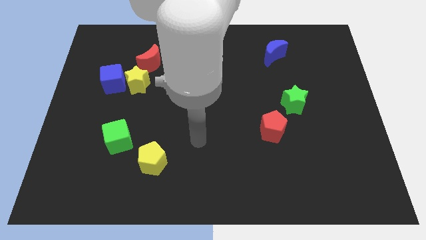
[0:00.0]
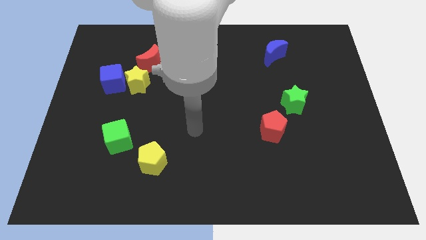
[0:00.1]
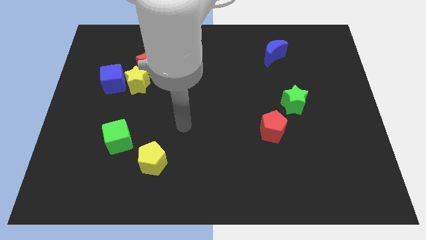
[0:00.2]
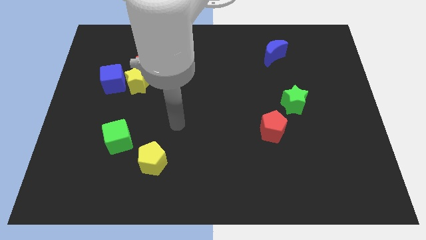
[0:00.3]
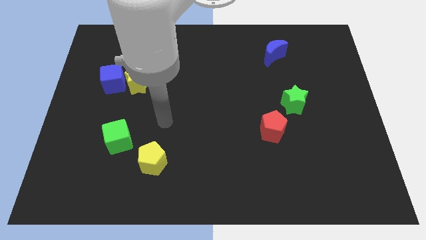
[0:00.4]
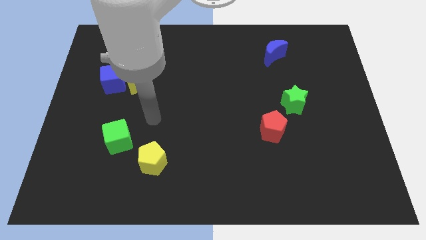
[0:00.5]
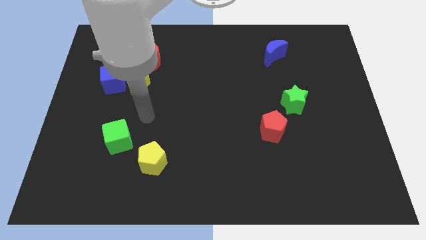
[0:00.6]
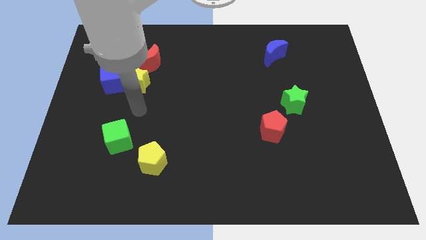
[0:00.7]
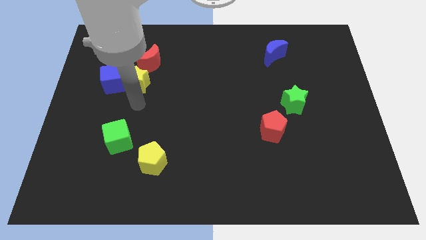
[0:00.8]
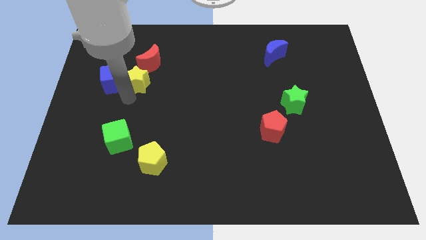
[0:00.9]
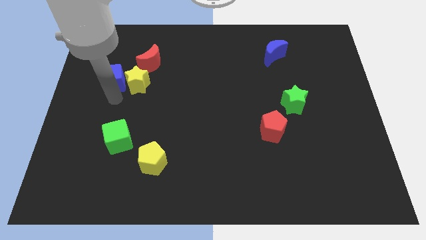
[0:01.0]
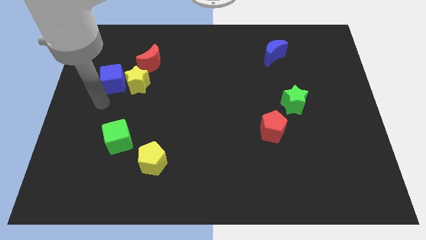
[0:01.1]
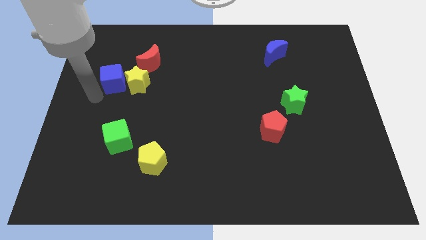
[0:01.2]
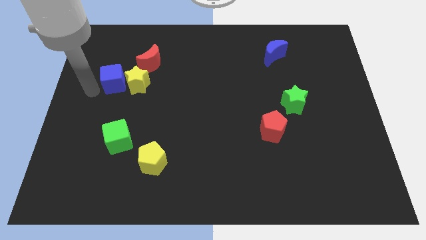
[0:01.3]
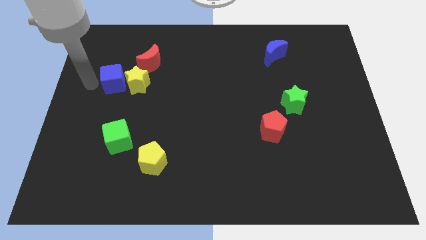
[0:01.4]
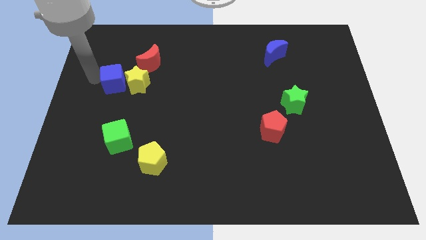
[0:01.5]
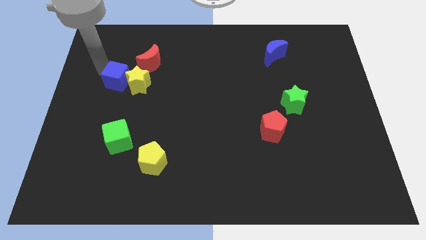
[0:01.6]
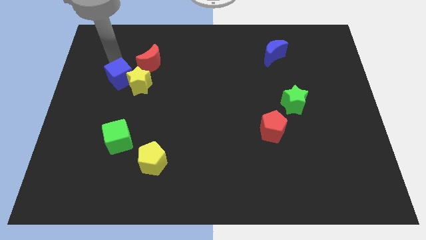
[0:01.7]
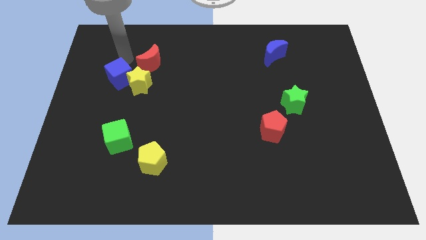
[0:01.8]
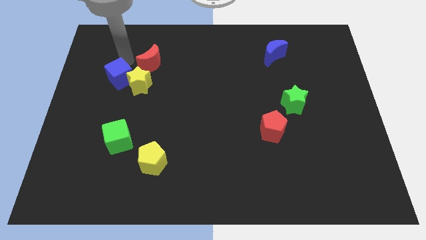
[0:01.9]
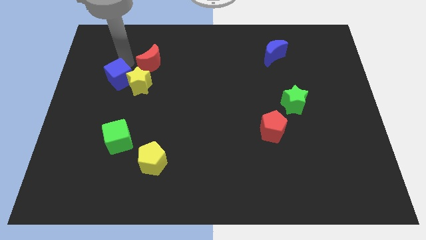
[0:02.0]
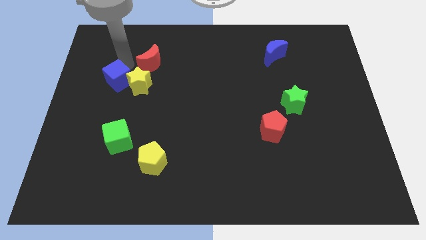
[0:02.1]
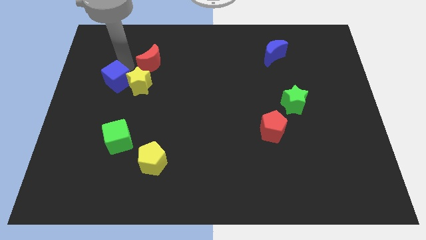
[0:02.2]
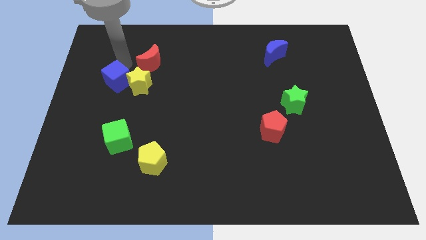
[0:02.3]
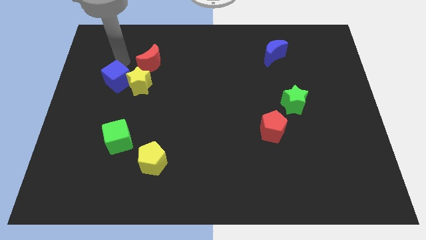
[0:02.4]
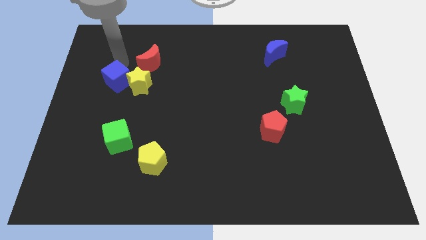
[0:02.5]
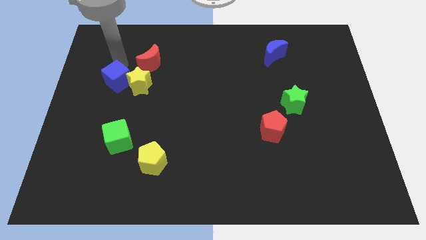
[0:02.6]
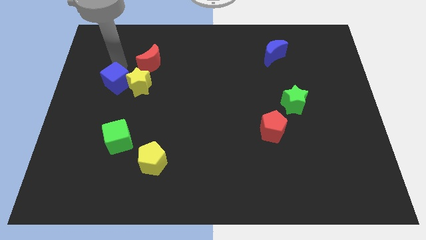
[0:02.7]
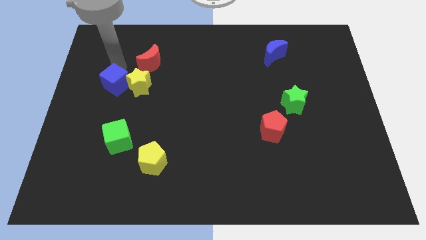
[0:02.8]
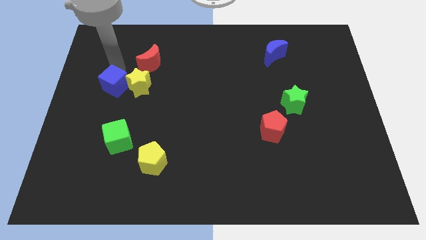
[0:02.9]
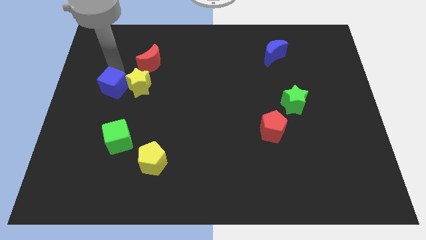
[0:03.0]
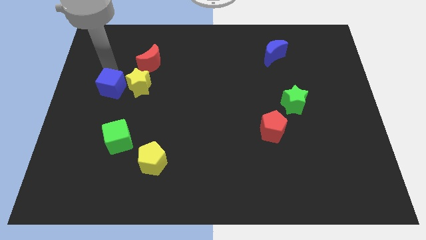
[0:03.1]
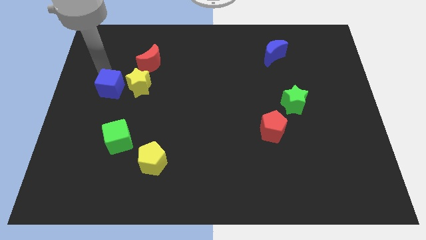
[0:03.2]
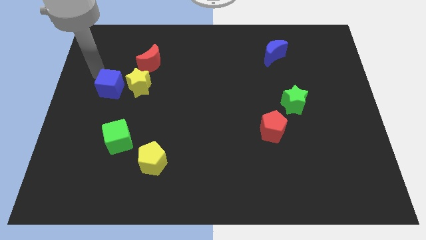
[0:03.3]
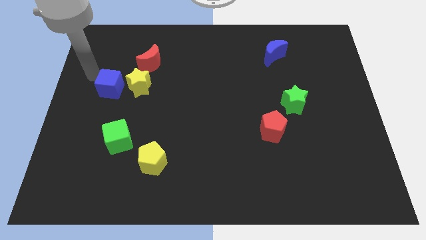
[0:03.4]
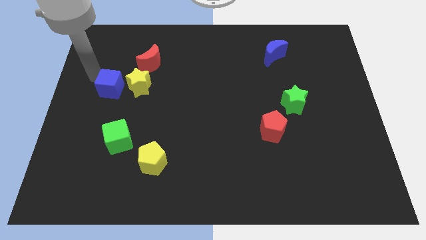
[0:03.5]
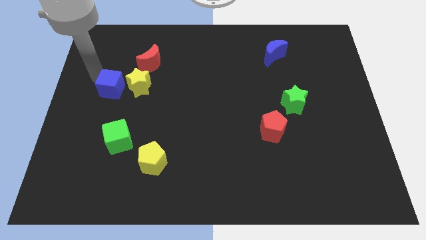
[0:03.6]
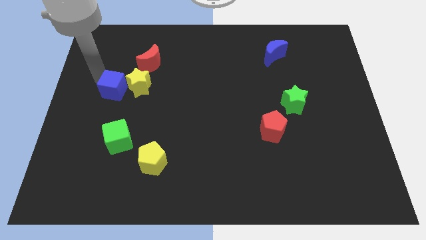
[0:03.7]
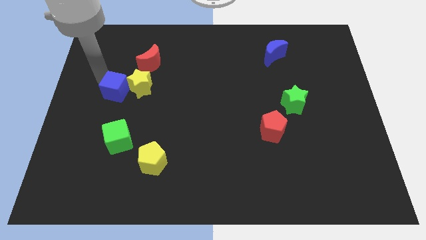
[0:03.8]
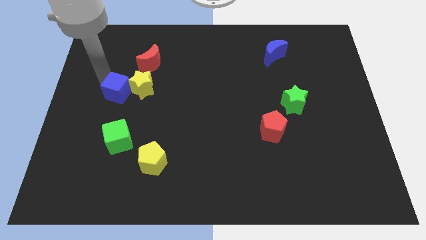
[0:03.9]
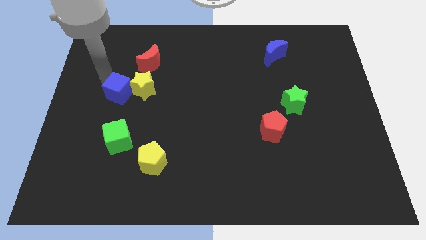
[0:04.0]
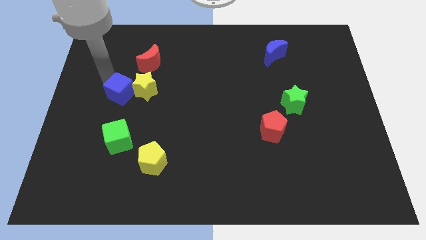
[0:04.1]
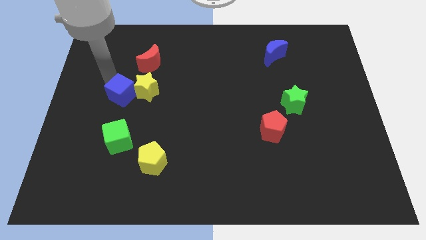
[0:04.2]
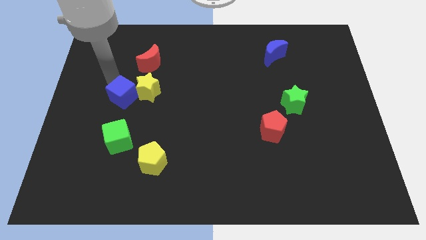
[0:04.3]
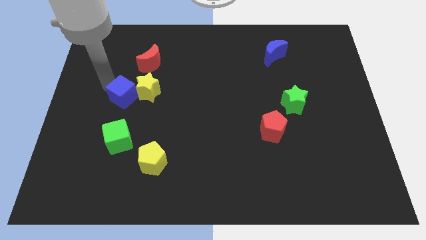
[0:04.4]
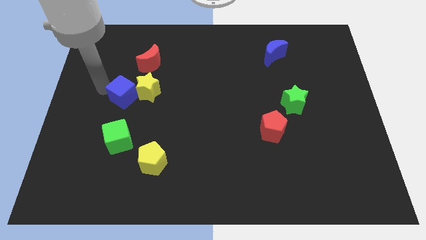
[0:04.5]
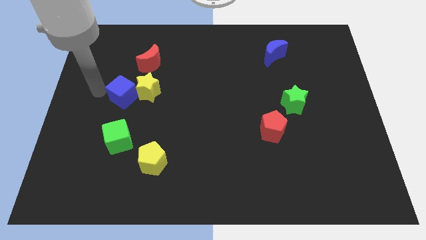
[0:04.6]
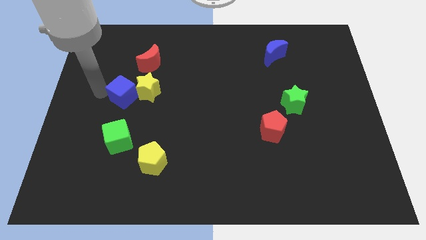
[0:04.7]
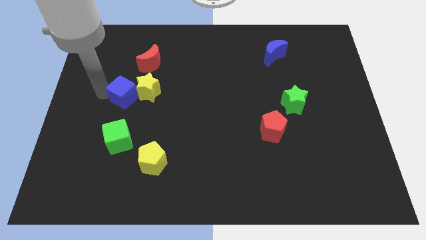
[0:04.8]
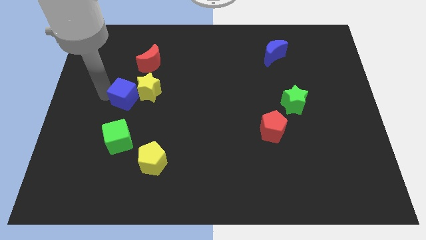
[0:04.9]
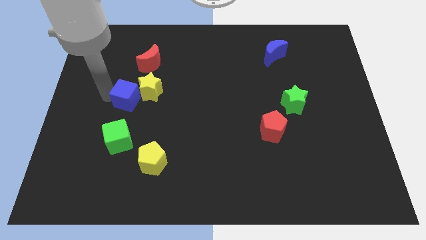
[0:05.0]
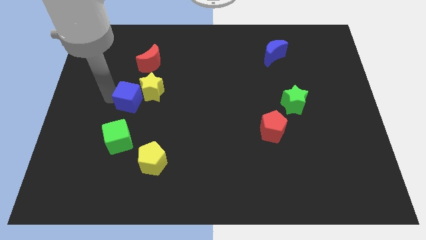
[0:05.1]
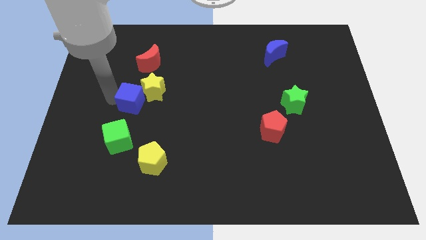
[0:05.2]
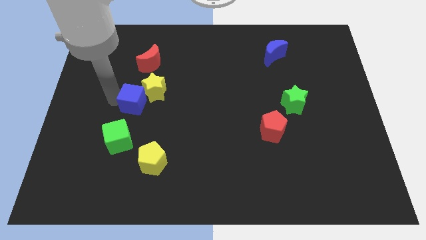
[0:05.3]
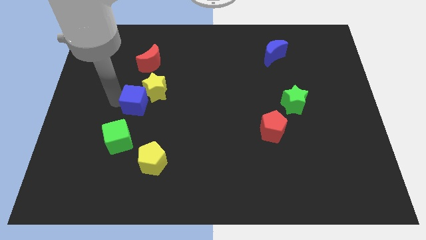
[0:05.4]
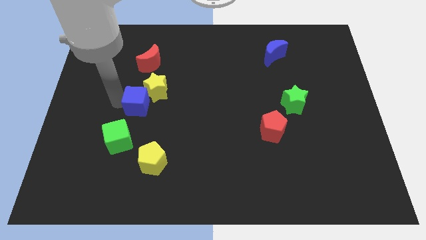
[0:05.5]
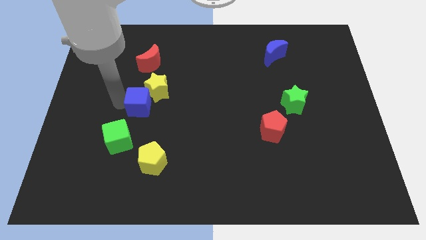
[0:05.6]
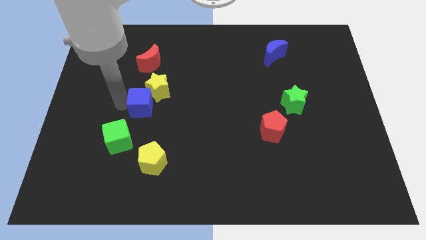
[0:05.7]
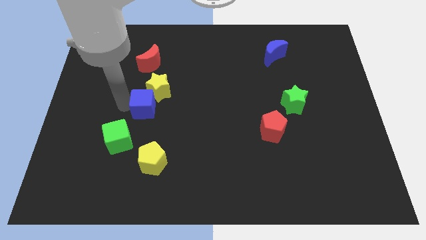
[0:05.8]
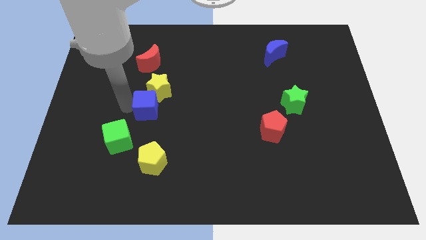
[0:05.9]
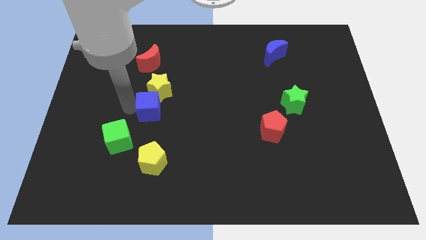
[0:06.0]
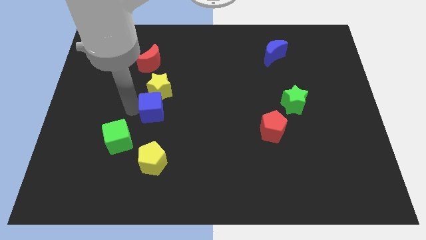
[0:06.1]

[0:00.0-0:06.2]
slightly slide the blue cube right

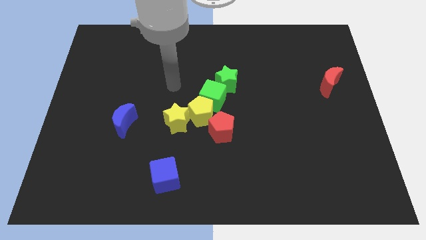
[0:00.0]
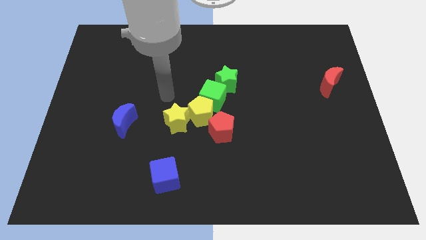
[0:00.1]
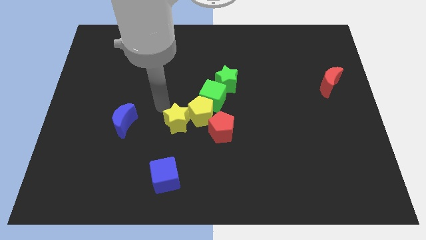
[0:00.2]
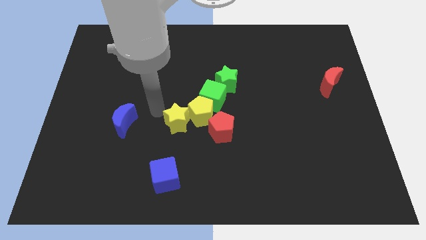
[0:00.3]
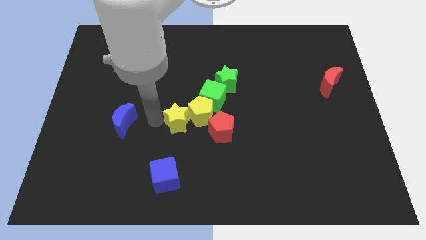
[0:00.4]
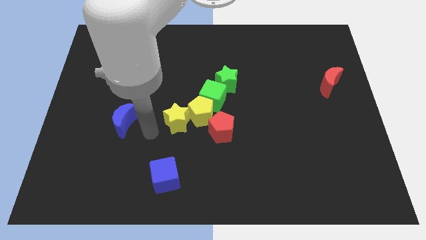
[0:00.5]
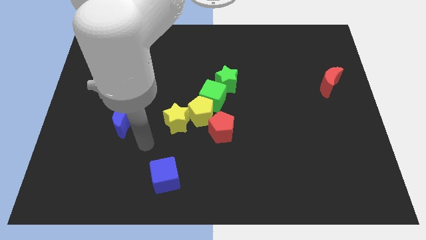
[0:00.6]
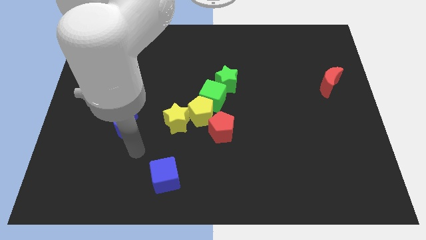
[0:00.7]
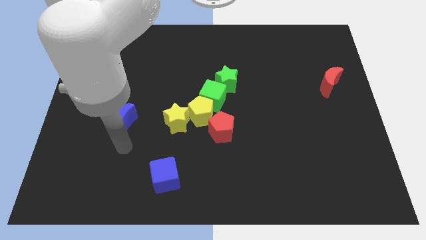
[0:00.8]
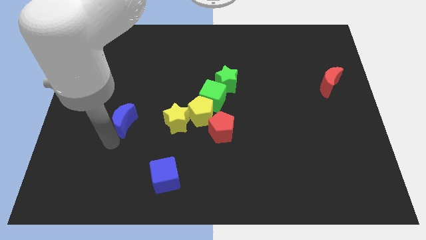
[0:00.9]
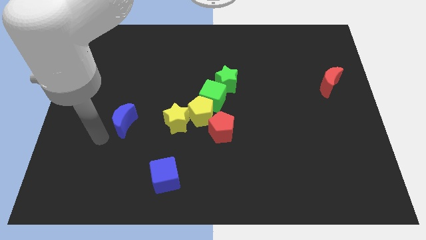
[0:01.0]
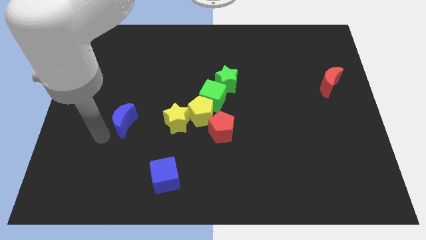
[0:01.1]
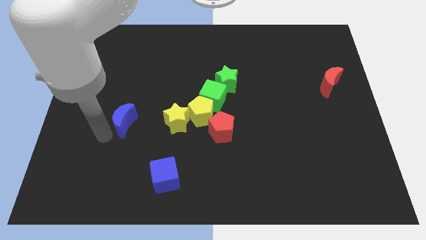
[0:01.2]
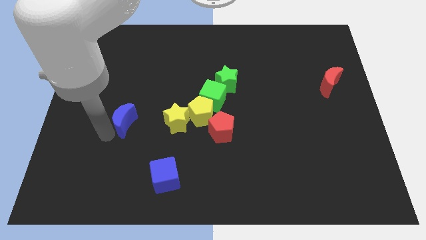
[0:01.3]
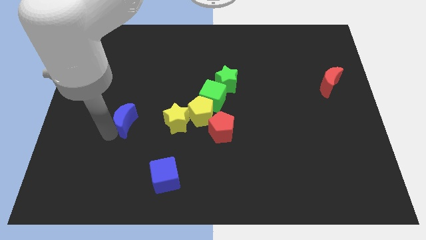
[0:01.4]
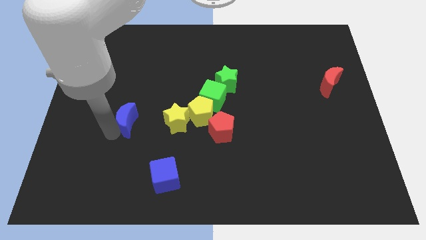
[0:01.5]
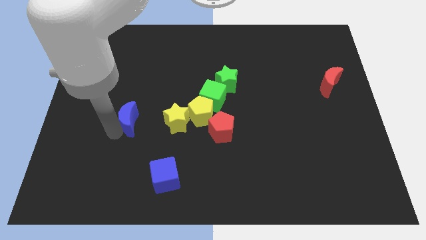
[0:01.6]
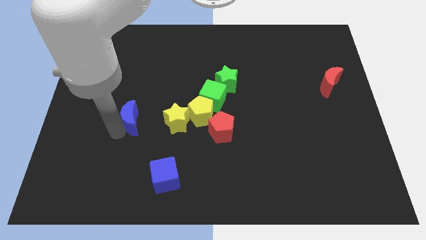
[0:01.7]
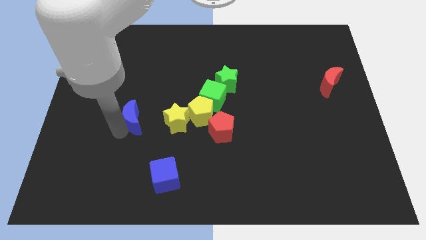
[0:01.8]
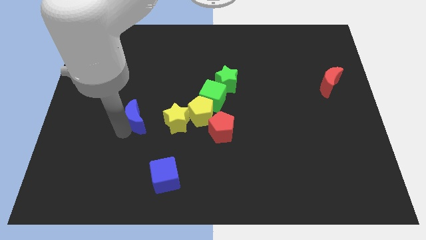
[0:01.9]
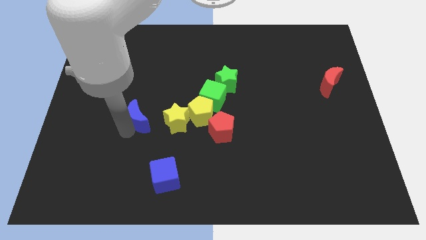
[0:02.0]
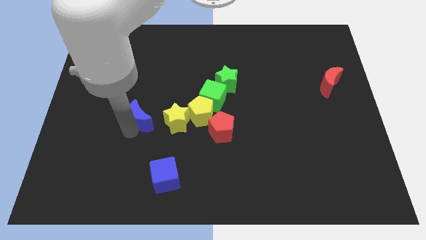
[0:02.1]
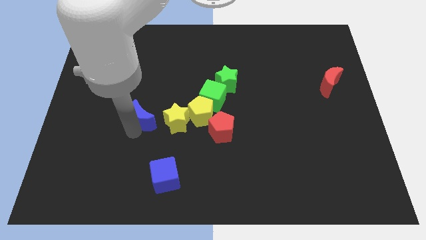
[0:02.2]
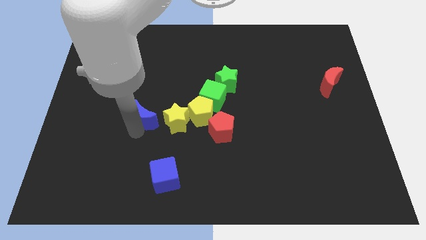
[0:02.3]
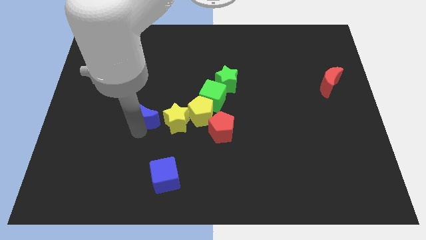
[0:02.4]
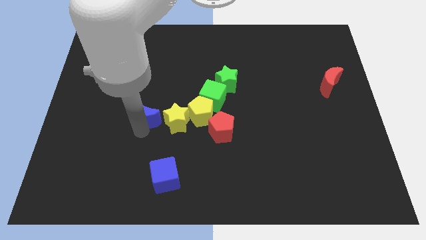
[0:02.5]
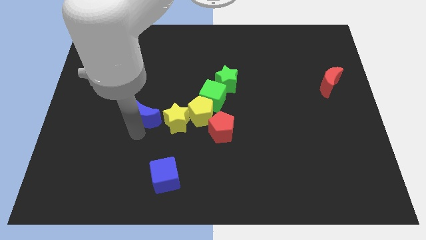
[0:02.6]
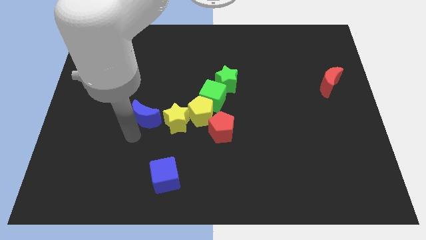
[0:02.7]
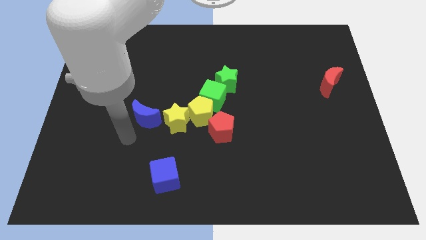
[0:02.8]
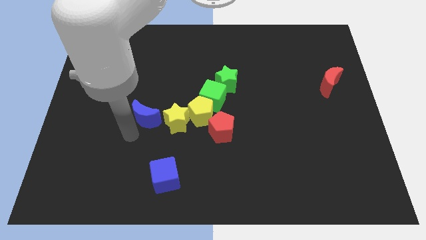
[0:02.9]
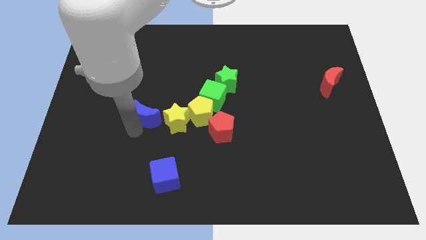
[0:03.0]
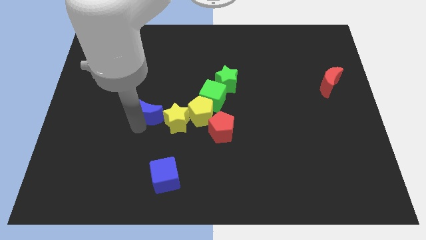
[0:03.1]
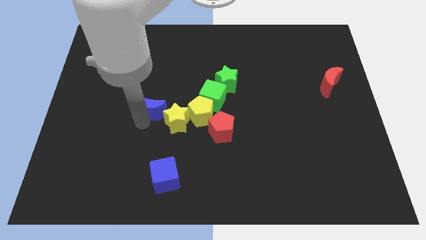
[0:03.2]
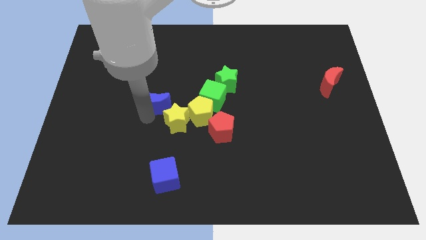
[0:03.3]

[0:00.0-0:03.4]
push the blue moon slightly up and right
